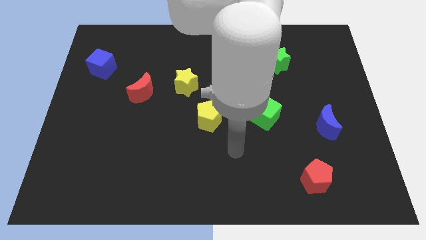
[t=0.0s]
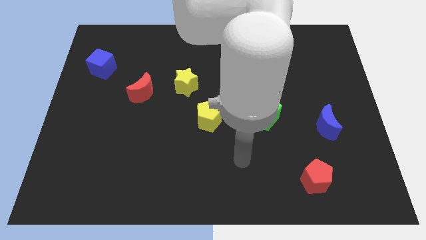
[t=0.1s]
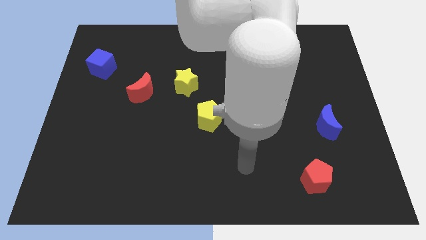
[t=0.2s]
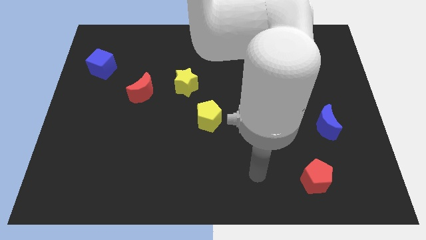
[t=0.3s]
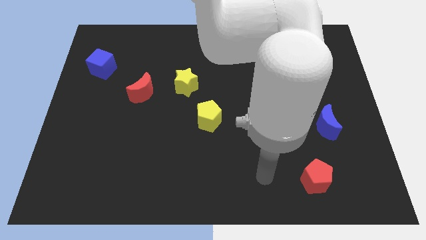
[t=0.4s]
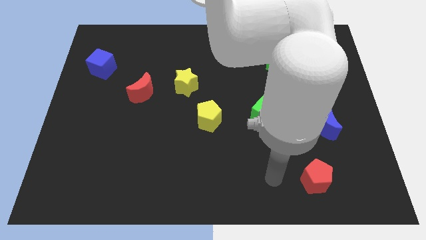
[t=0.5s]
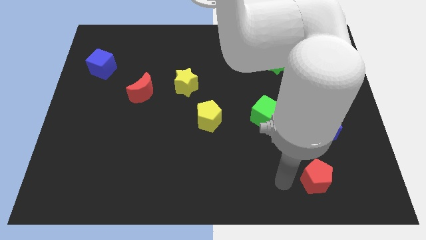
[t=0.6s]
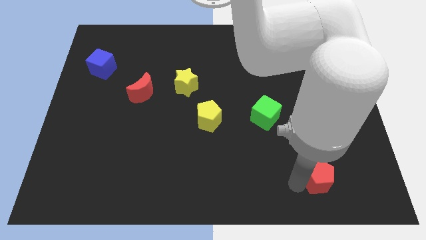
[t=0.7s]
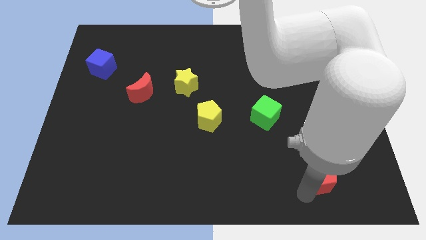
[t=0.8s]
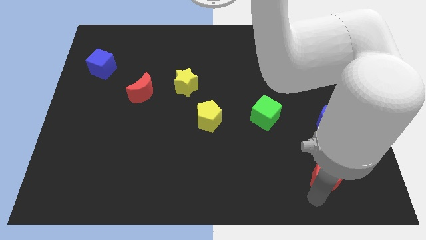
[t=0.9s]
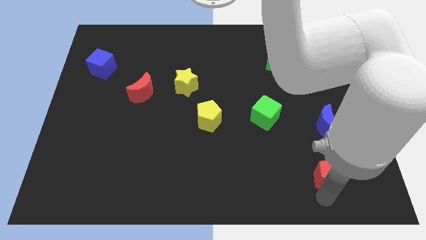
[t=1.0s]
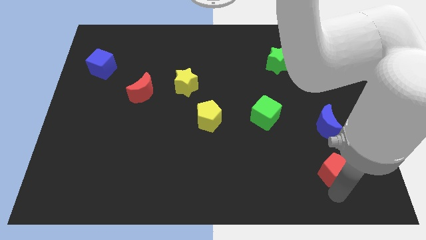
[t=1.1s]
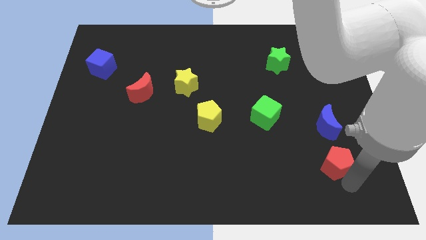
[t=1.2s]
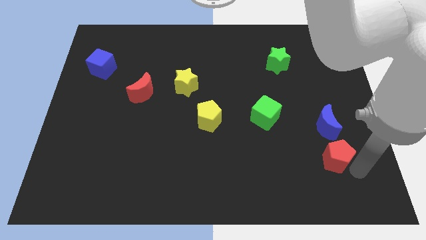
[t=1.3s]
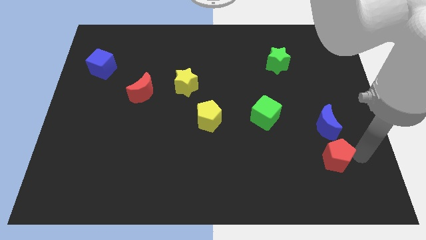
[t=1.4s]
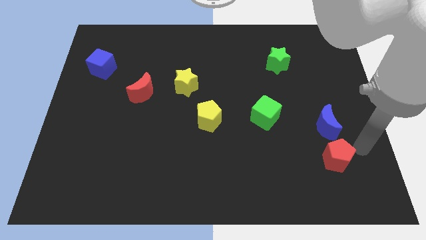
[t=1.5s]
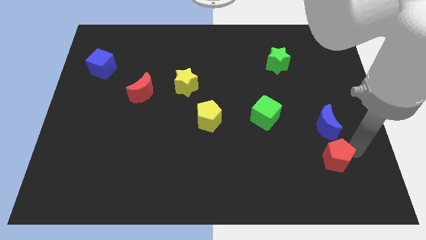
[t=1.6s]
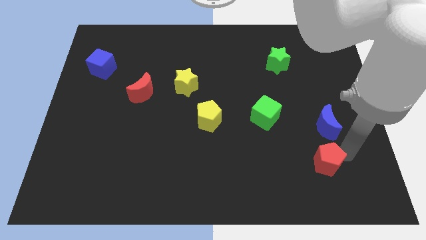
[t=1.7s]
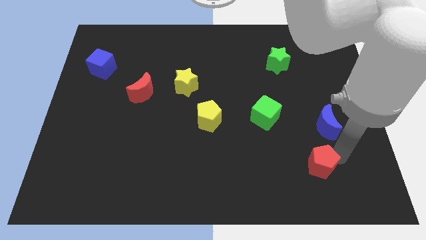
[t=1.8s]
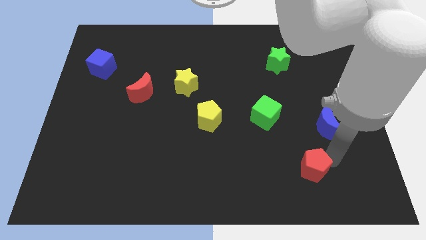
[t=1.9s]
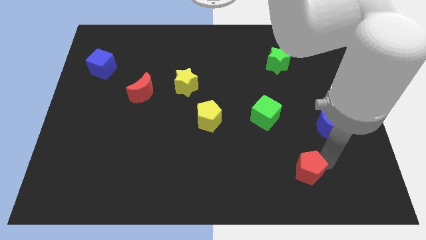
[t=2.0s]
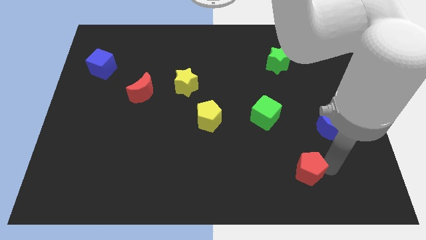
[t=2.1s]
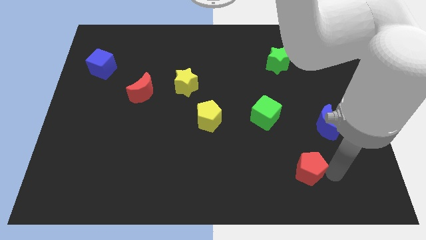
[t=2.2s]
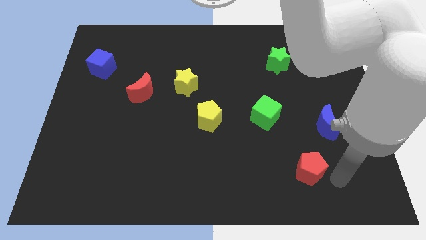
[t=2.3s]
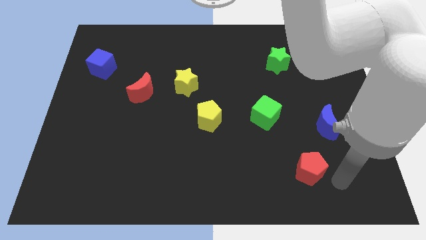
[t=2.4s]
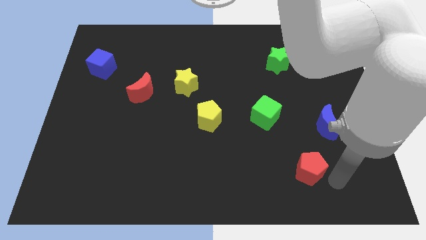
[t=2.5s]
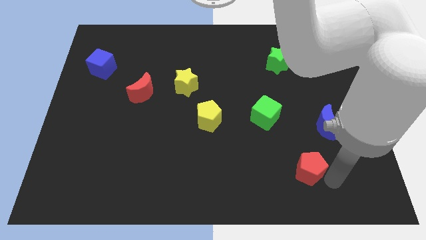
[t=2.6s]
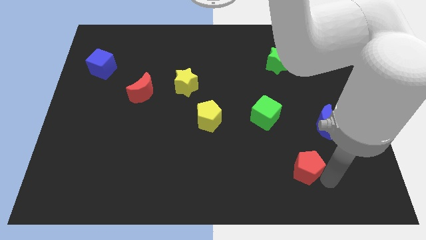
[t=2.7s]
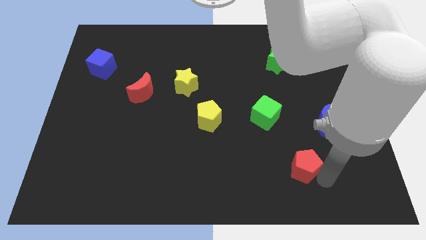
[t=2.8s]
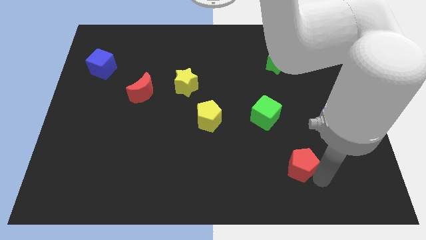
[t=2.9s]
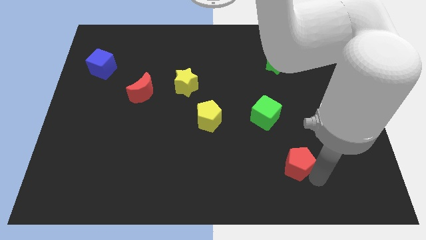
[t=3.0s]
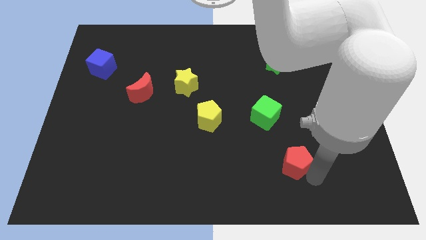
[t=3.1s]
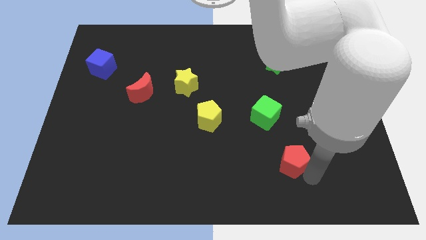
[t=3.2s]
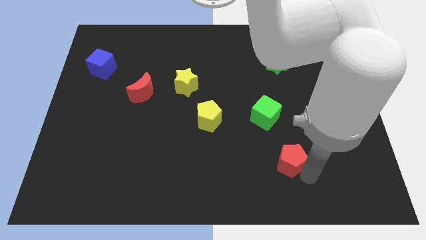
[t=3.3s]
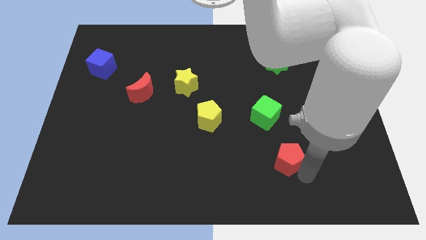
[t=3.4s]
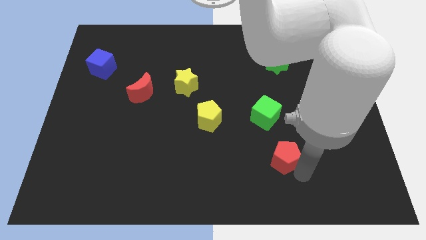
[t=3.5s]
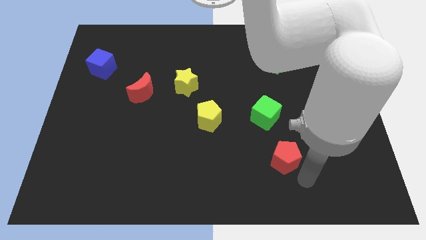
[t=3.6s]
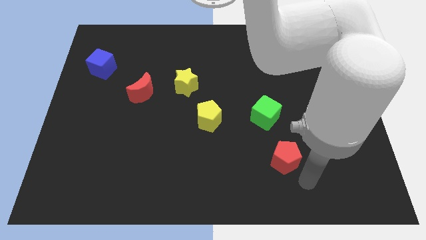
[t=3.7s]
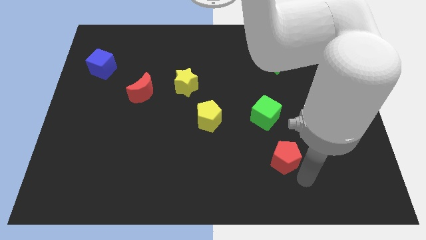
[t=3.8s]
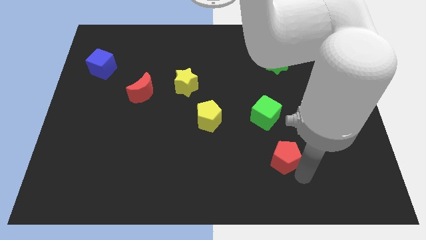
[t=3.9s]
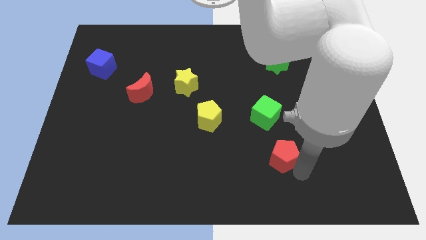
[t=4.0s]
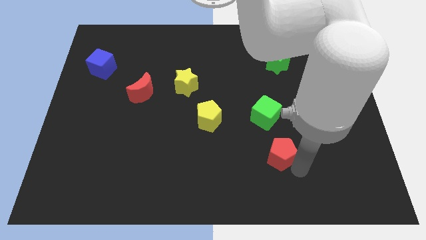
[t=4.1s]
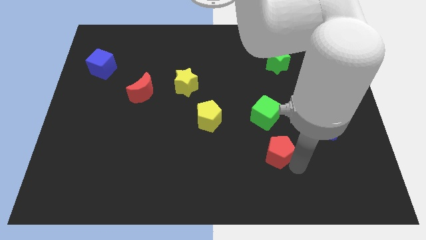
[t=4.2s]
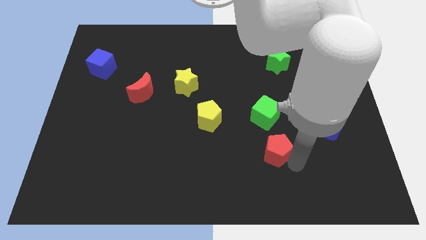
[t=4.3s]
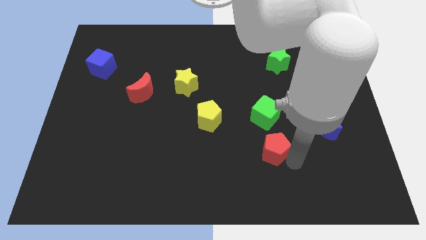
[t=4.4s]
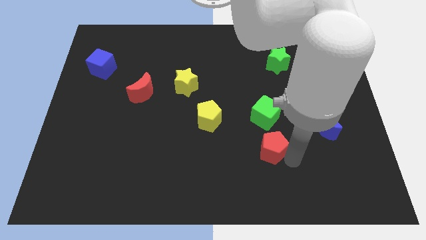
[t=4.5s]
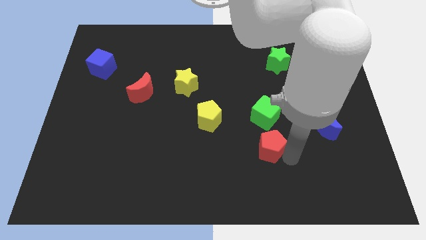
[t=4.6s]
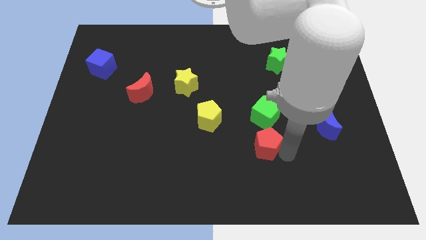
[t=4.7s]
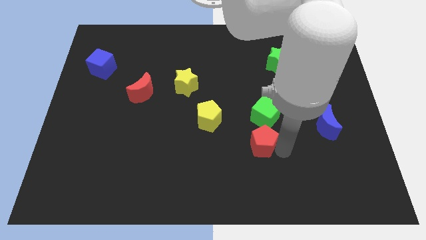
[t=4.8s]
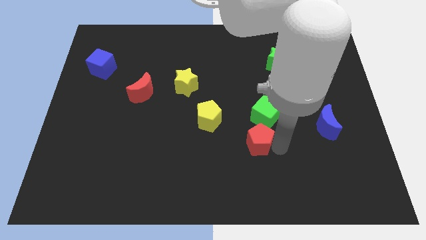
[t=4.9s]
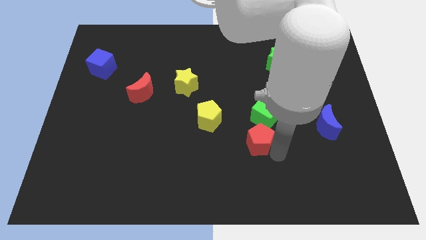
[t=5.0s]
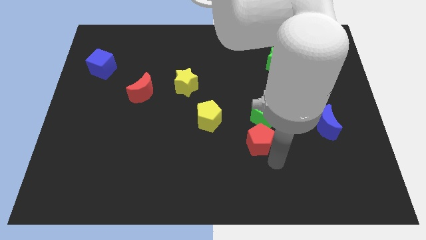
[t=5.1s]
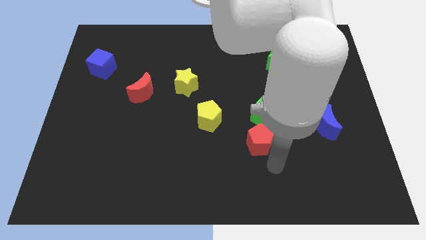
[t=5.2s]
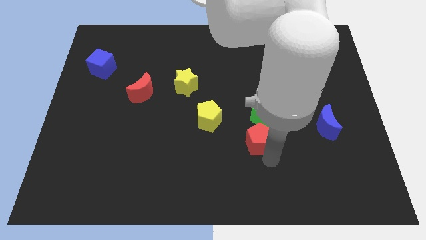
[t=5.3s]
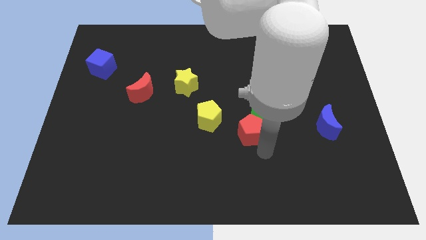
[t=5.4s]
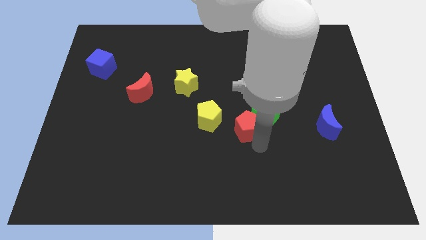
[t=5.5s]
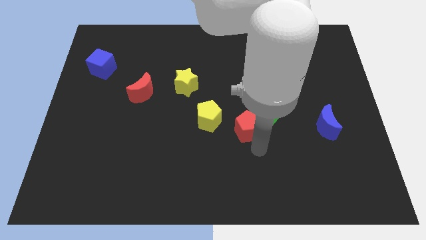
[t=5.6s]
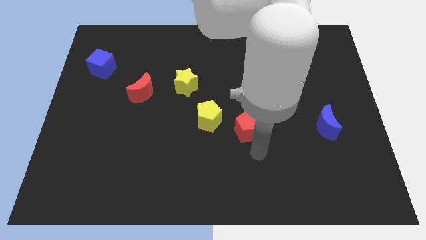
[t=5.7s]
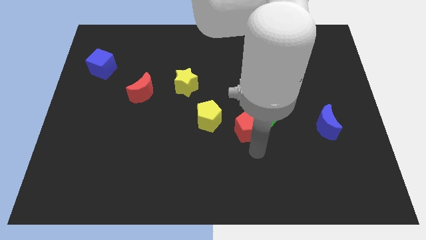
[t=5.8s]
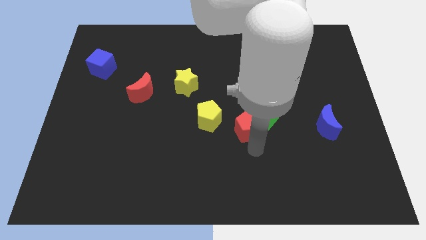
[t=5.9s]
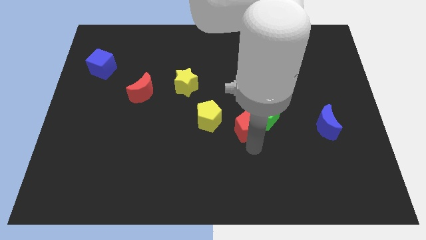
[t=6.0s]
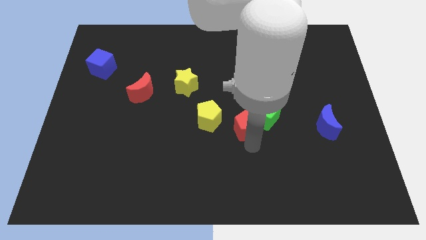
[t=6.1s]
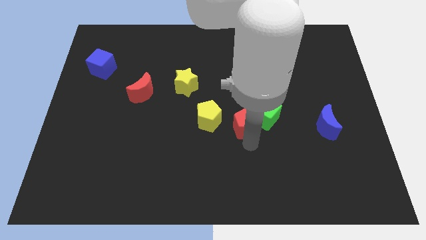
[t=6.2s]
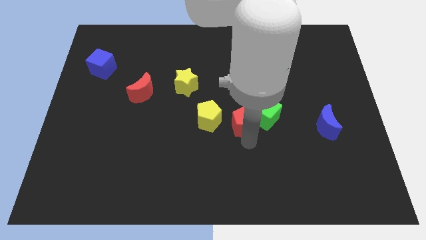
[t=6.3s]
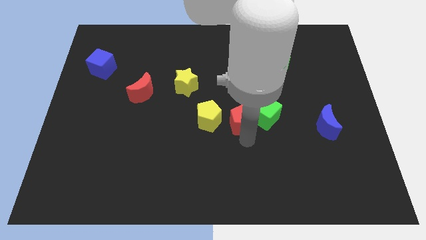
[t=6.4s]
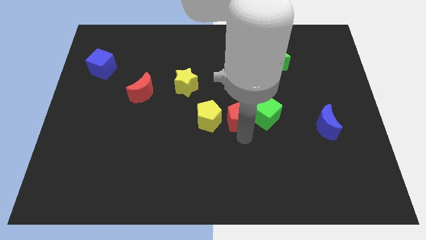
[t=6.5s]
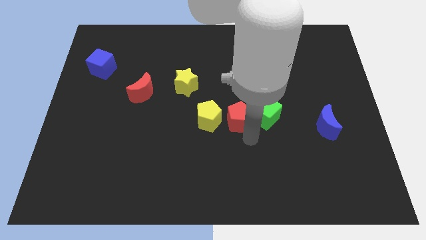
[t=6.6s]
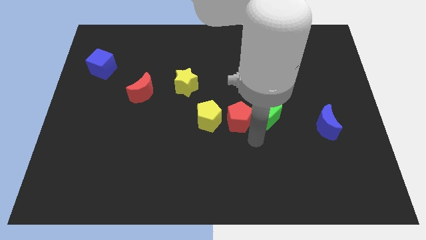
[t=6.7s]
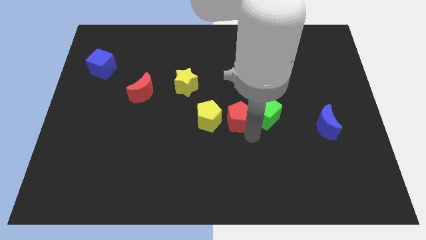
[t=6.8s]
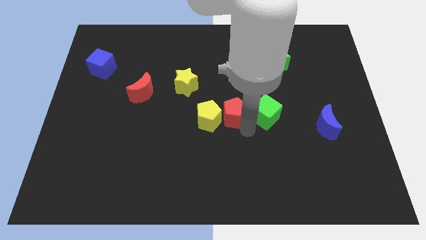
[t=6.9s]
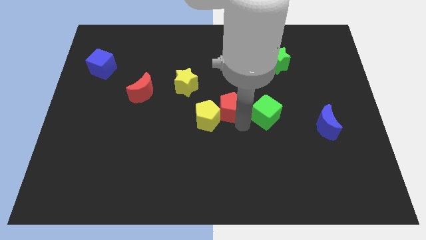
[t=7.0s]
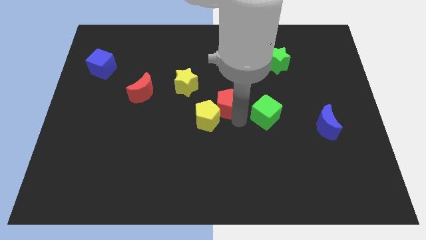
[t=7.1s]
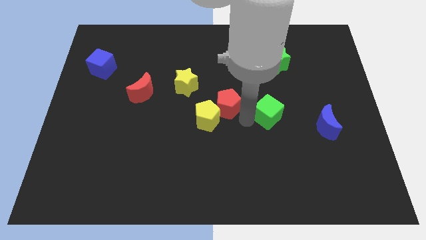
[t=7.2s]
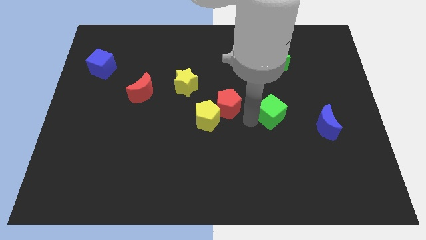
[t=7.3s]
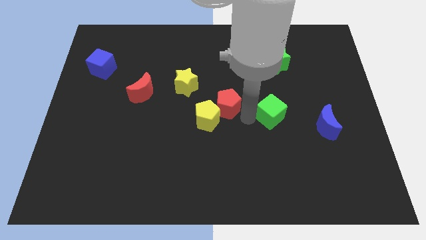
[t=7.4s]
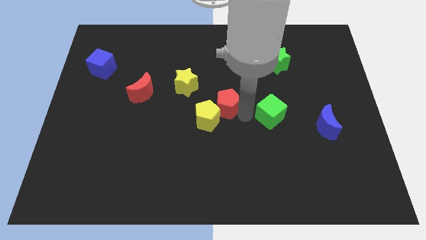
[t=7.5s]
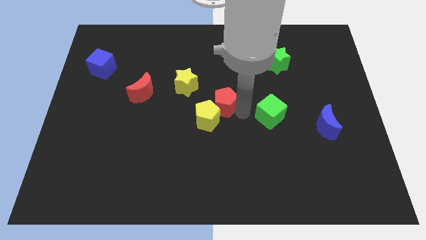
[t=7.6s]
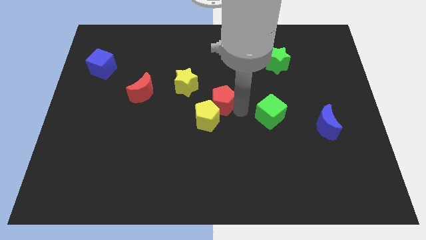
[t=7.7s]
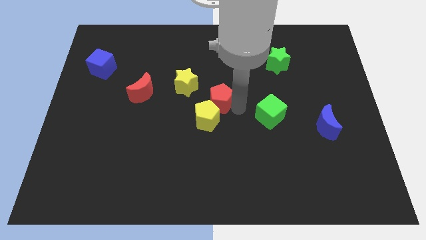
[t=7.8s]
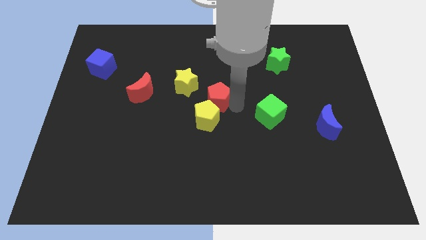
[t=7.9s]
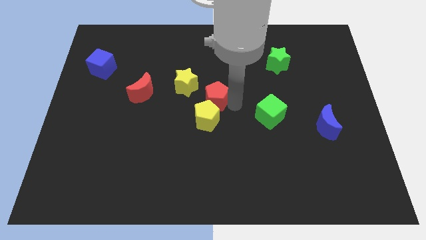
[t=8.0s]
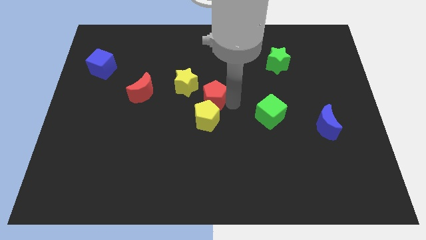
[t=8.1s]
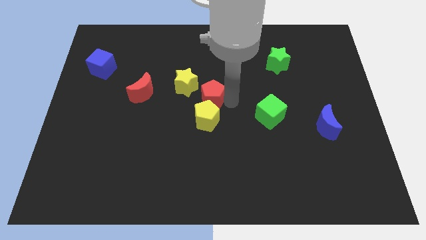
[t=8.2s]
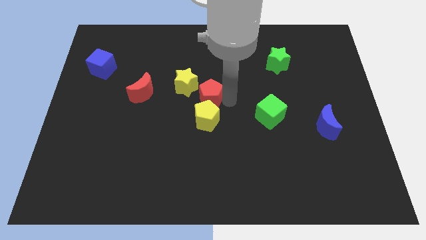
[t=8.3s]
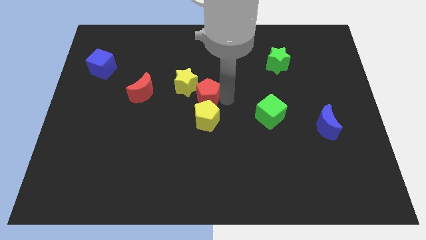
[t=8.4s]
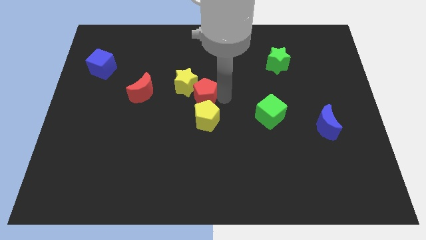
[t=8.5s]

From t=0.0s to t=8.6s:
push the red pentagon next to the yellow star
